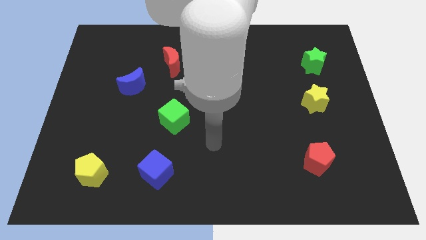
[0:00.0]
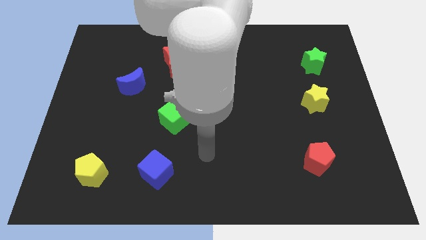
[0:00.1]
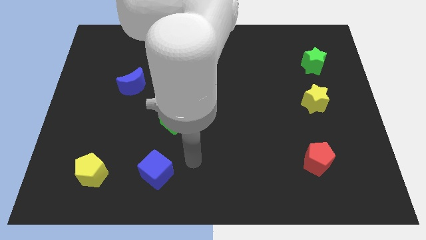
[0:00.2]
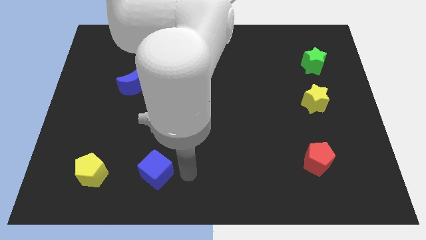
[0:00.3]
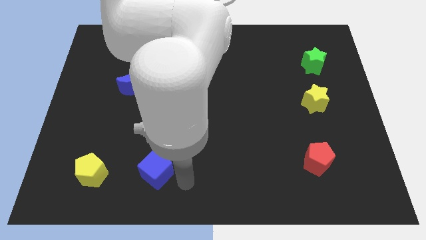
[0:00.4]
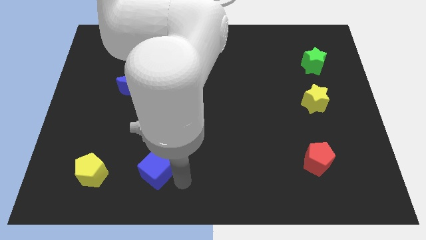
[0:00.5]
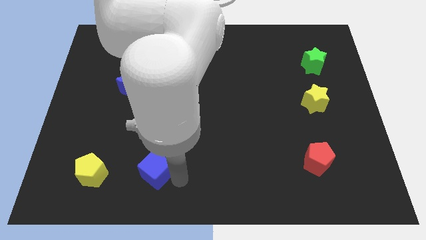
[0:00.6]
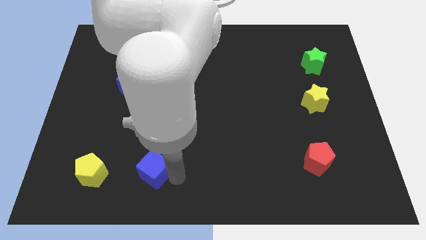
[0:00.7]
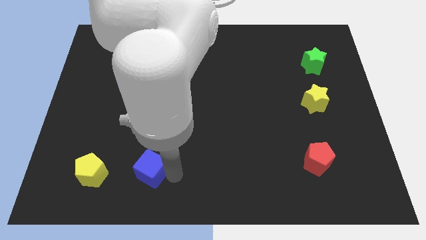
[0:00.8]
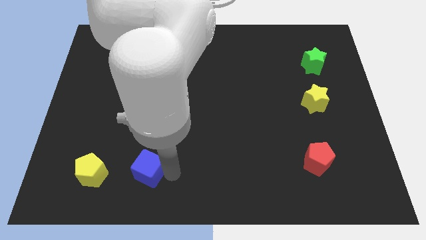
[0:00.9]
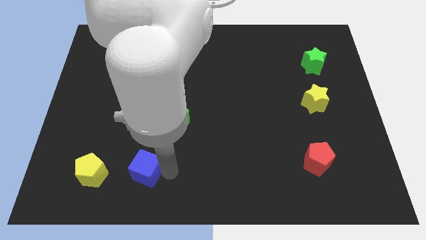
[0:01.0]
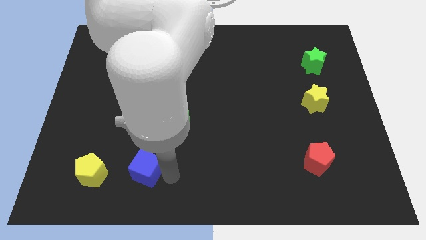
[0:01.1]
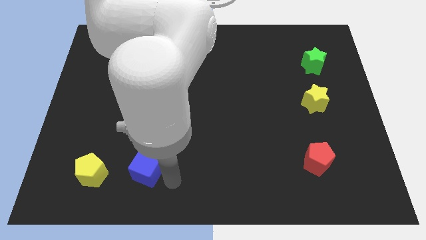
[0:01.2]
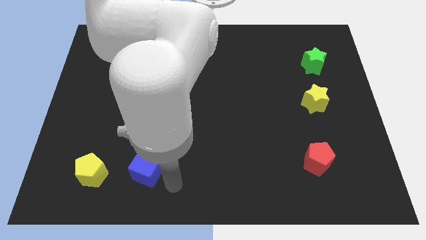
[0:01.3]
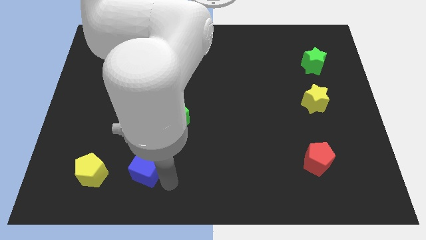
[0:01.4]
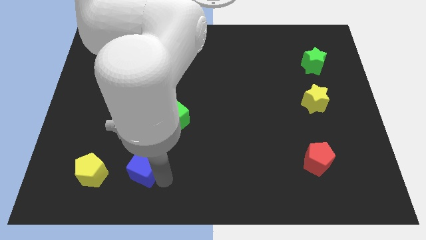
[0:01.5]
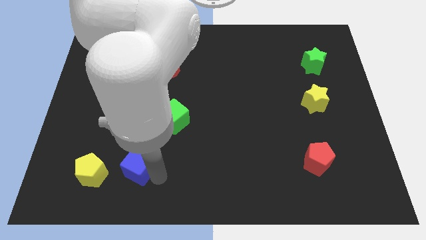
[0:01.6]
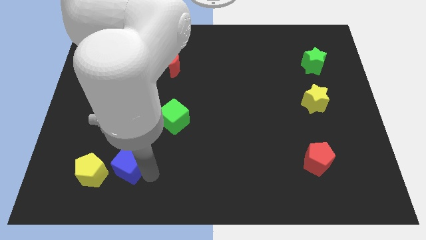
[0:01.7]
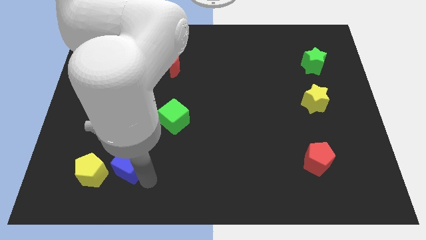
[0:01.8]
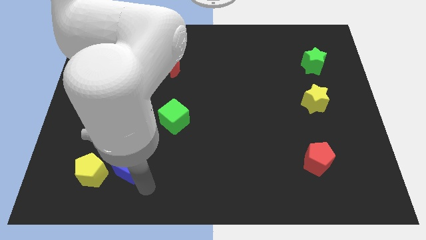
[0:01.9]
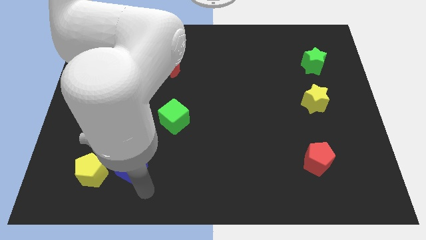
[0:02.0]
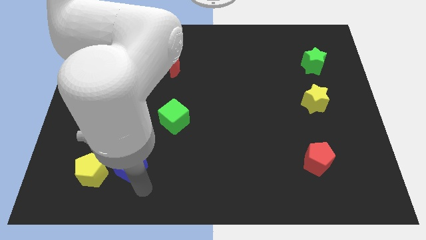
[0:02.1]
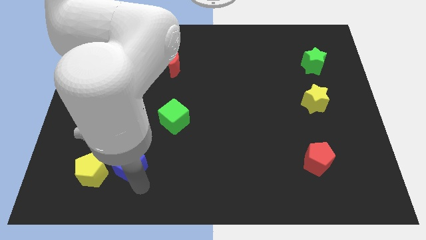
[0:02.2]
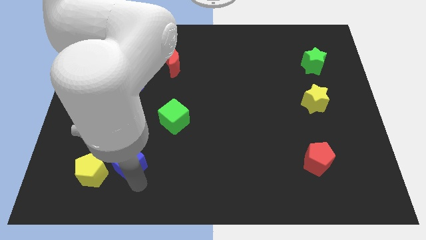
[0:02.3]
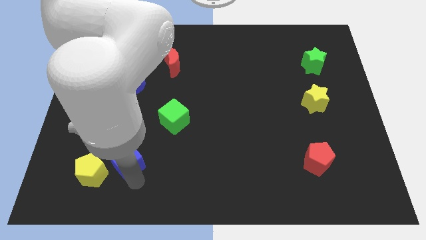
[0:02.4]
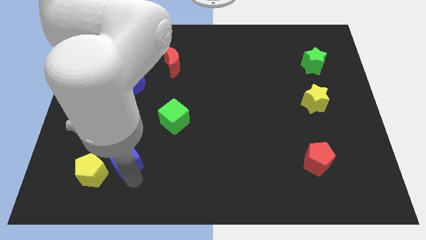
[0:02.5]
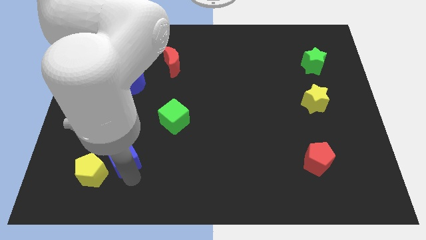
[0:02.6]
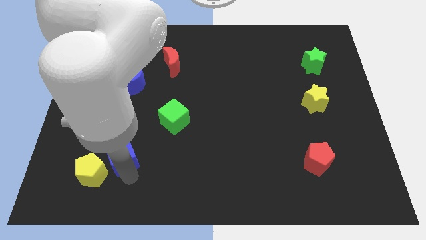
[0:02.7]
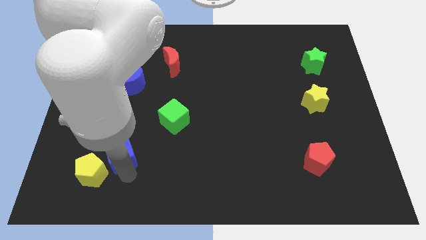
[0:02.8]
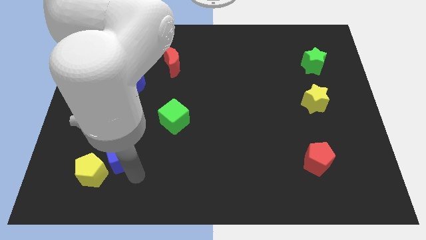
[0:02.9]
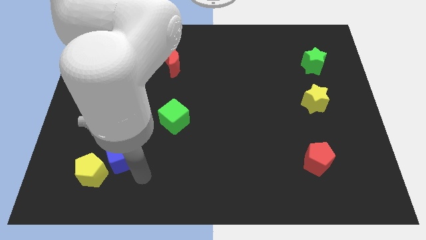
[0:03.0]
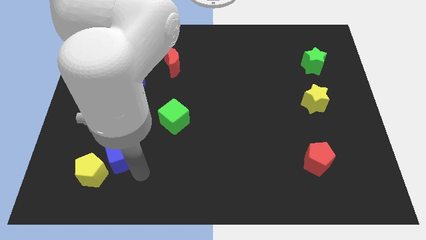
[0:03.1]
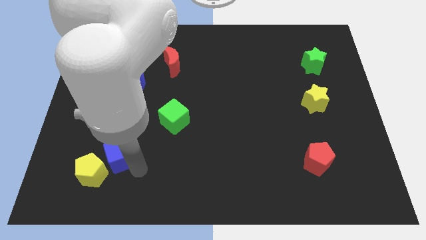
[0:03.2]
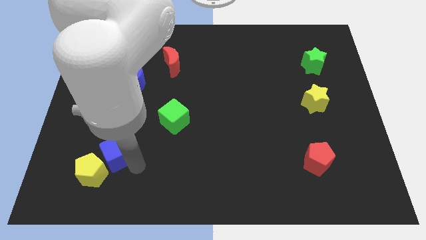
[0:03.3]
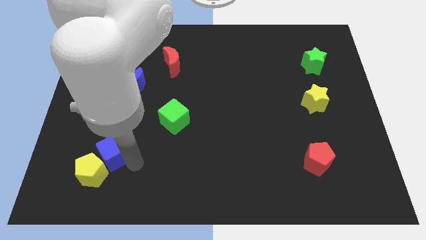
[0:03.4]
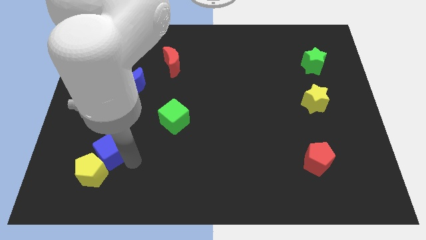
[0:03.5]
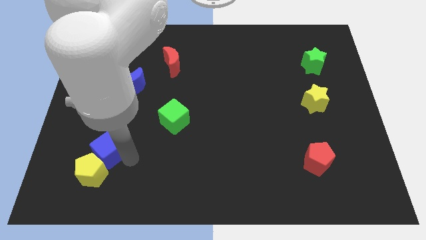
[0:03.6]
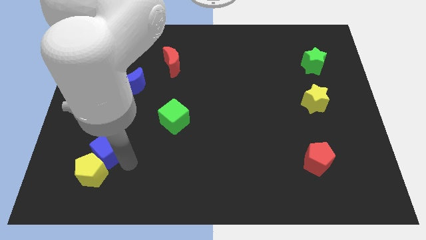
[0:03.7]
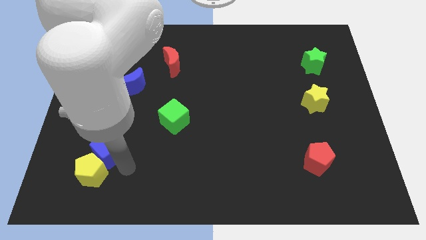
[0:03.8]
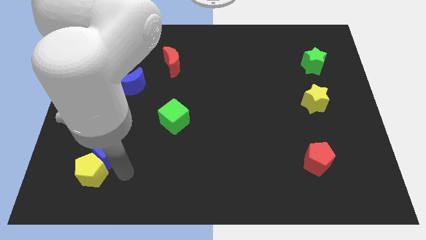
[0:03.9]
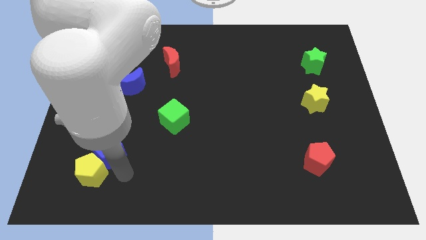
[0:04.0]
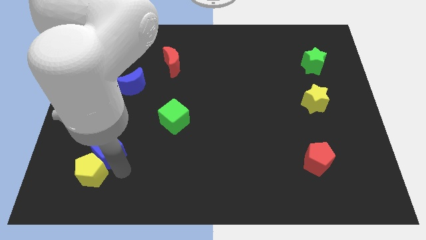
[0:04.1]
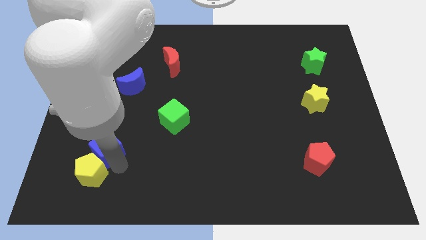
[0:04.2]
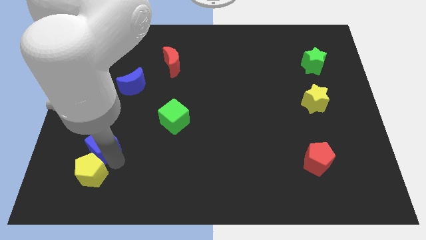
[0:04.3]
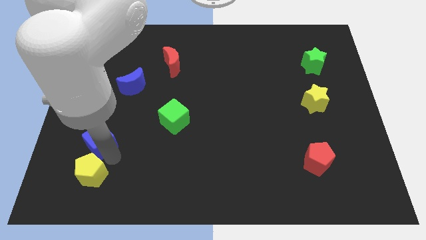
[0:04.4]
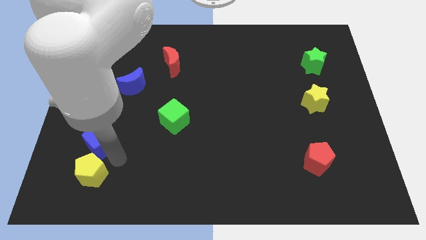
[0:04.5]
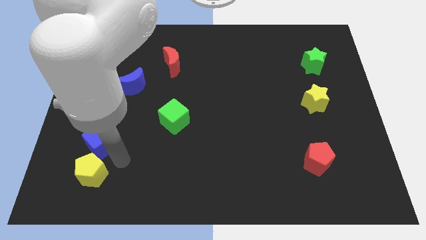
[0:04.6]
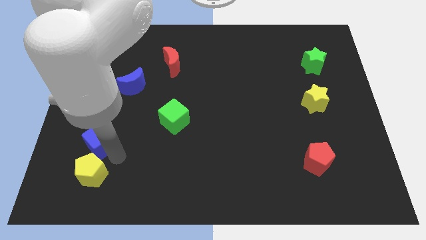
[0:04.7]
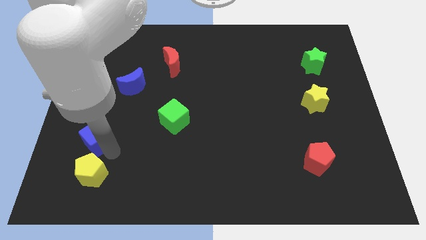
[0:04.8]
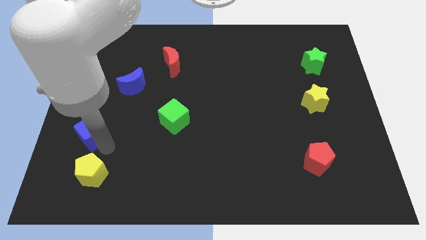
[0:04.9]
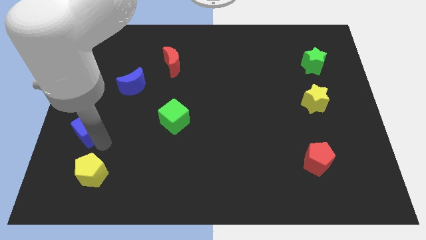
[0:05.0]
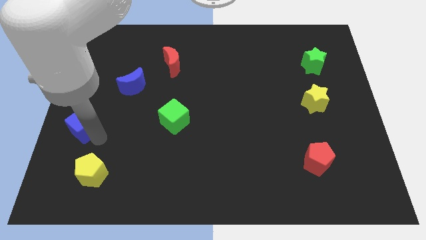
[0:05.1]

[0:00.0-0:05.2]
slide the blue cube to the center left

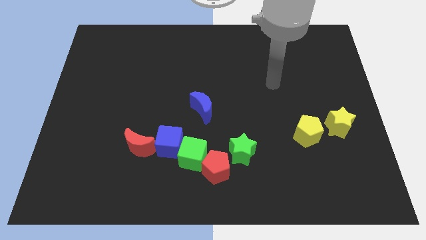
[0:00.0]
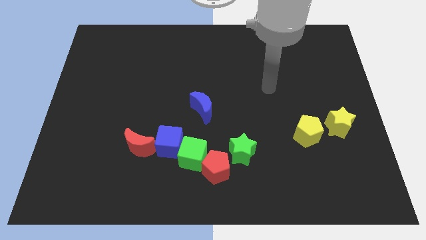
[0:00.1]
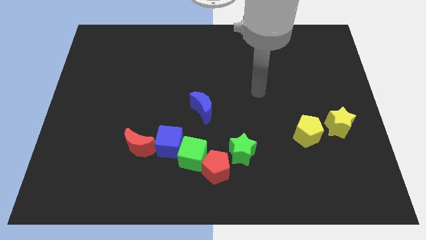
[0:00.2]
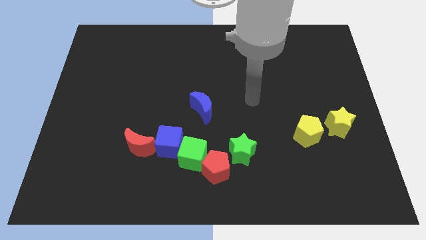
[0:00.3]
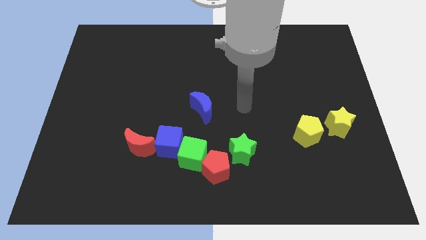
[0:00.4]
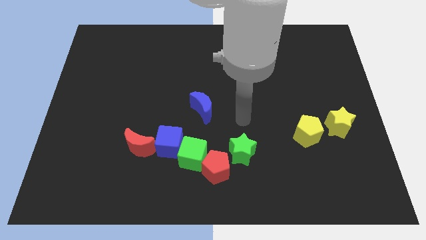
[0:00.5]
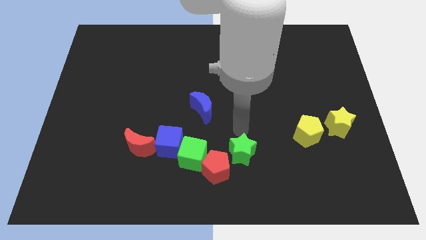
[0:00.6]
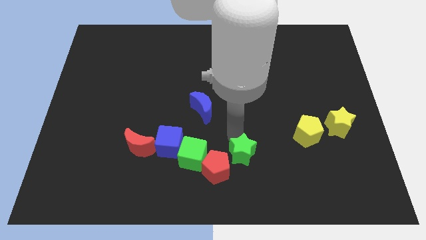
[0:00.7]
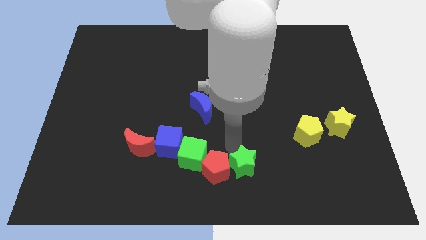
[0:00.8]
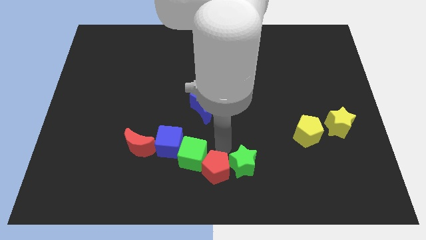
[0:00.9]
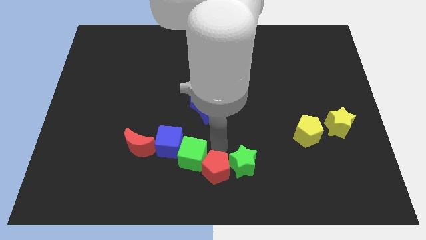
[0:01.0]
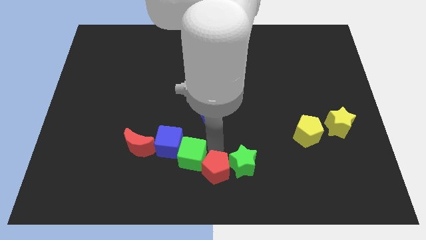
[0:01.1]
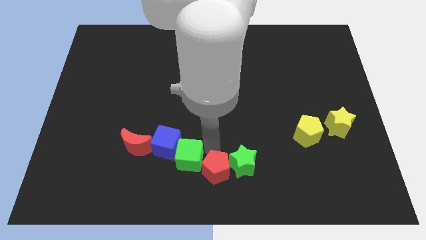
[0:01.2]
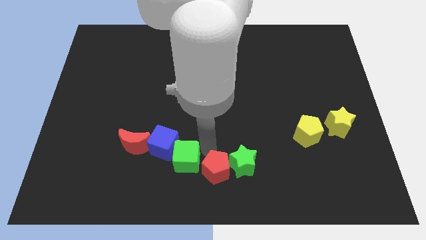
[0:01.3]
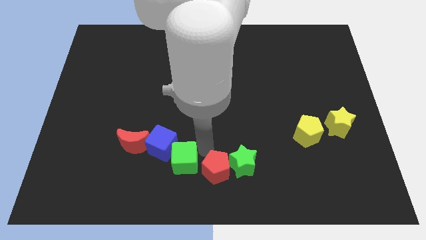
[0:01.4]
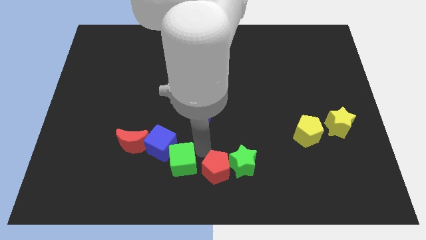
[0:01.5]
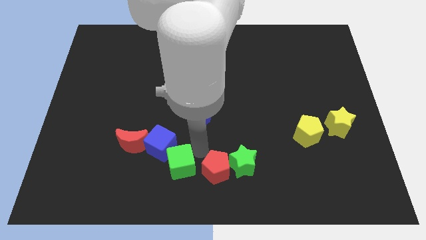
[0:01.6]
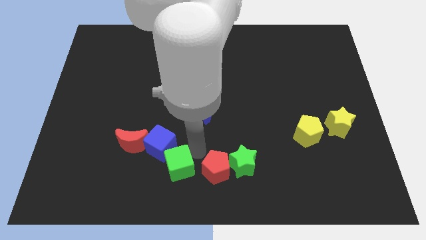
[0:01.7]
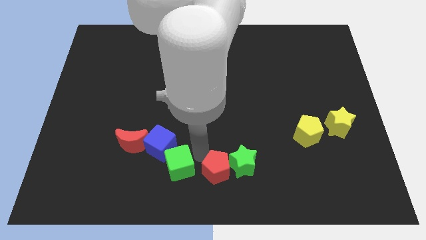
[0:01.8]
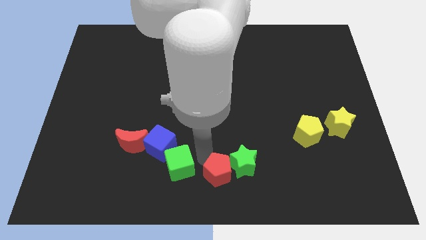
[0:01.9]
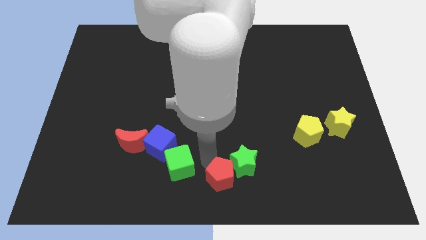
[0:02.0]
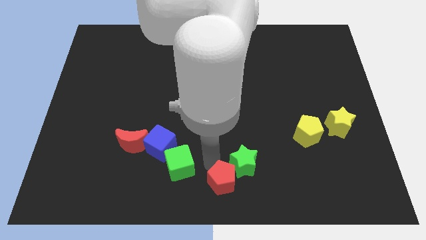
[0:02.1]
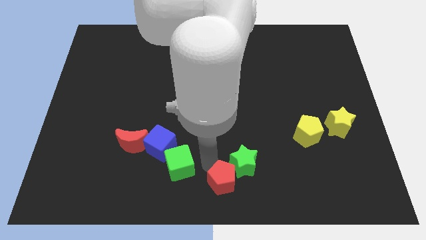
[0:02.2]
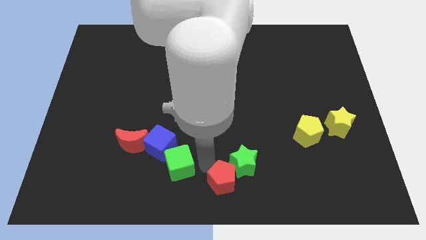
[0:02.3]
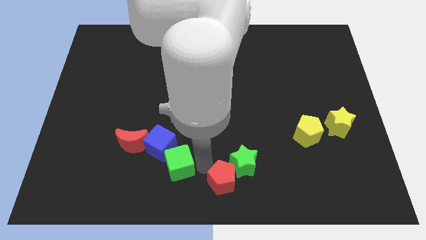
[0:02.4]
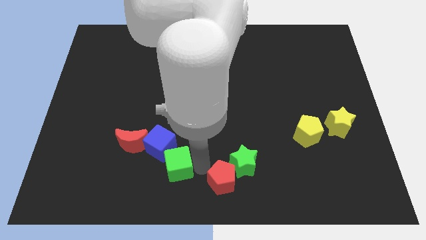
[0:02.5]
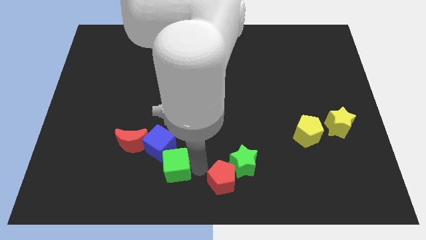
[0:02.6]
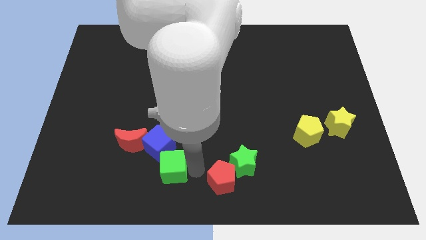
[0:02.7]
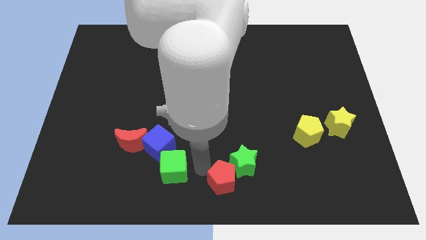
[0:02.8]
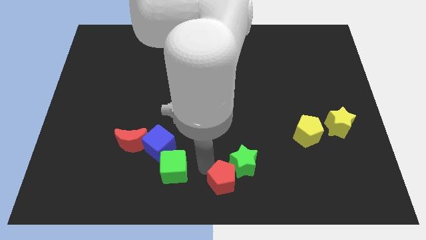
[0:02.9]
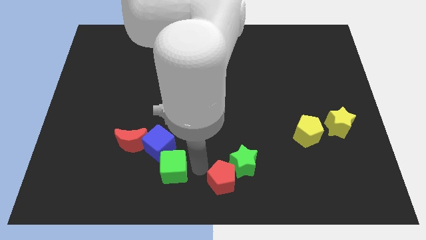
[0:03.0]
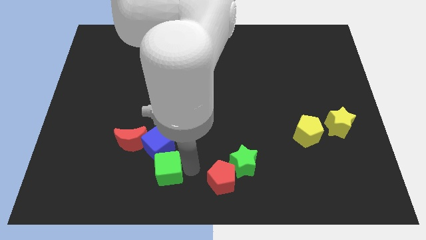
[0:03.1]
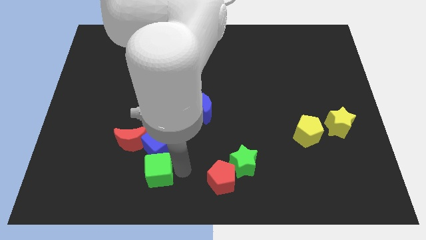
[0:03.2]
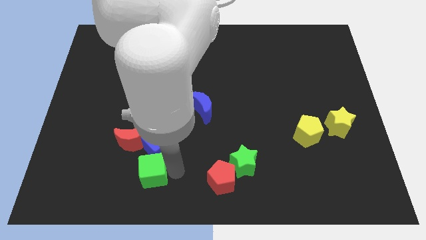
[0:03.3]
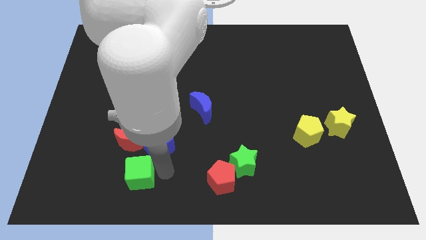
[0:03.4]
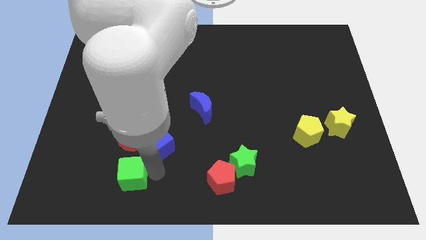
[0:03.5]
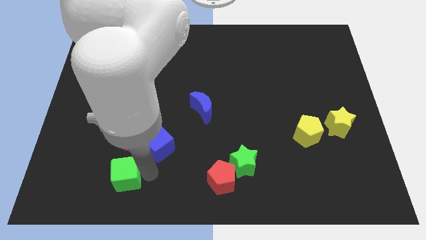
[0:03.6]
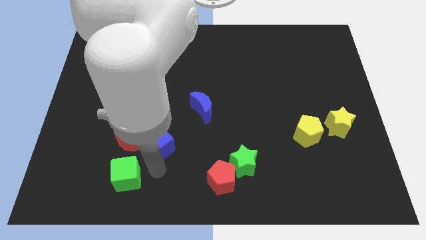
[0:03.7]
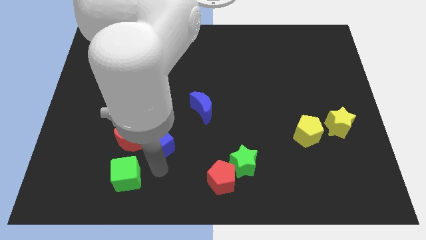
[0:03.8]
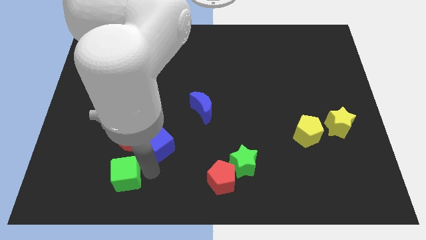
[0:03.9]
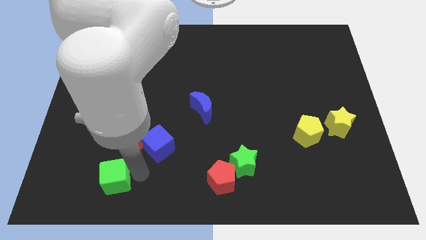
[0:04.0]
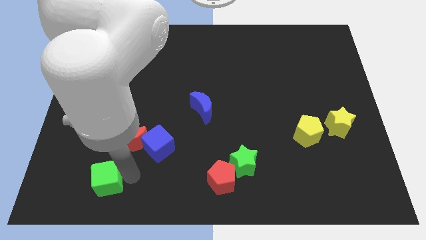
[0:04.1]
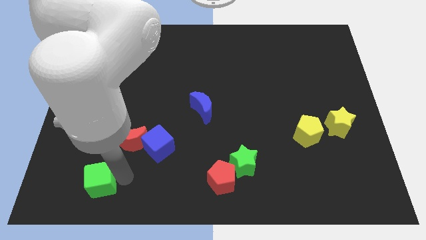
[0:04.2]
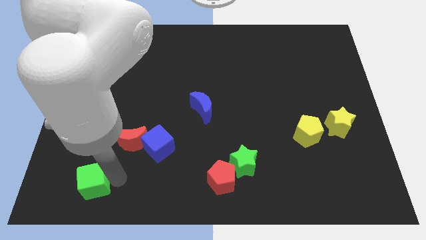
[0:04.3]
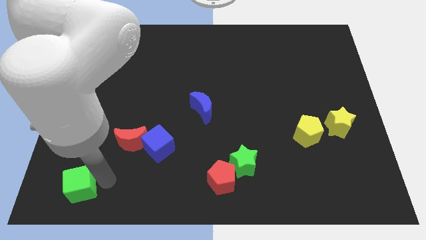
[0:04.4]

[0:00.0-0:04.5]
slide the green cube to the lower left corner
